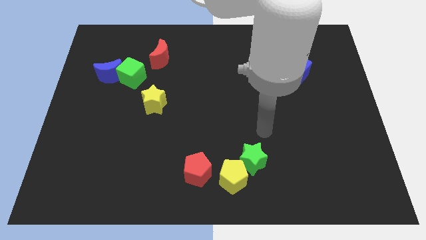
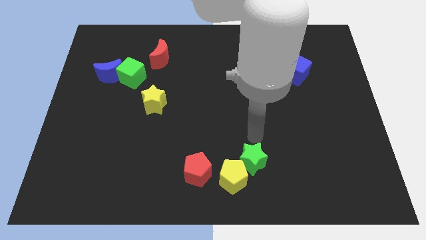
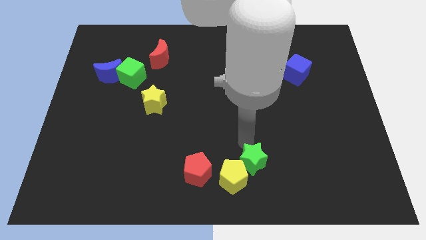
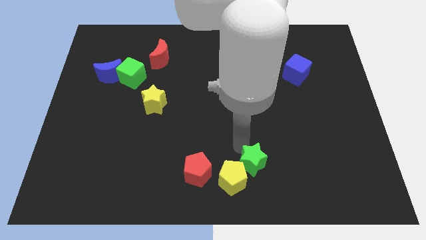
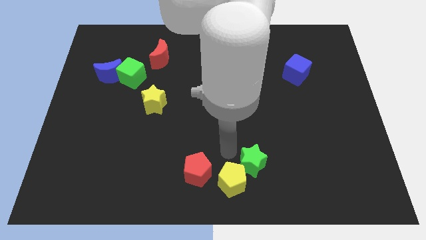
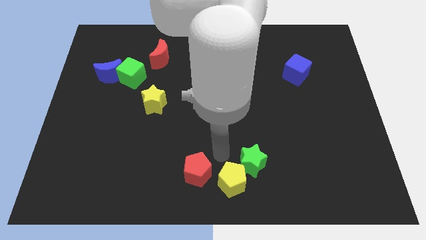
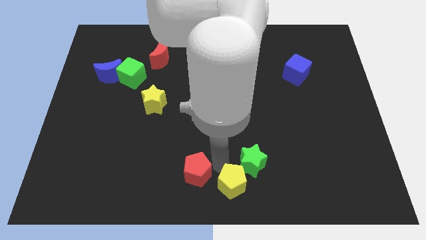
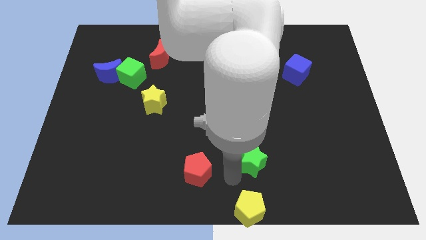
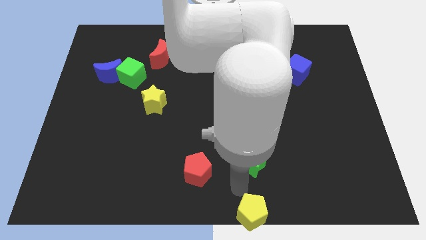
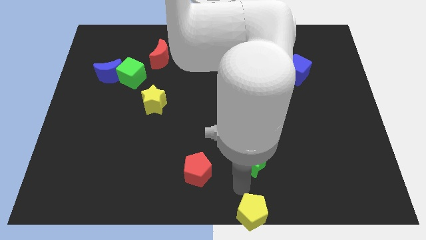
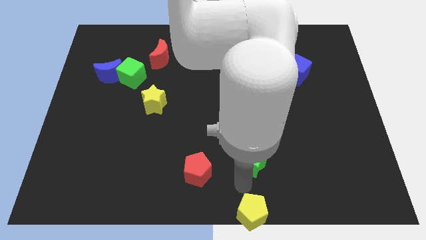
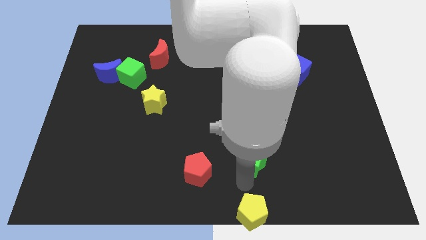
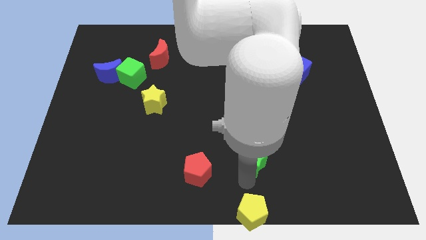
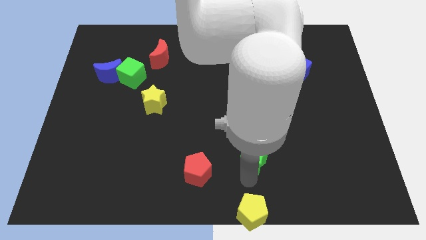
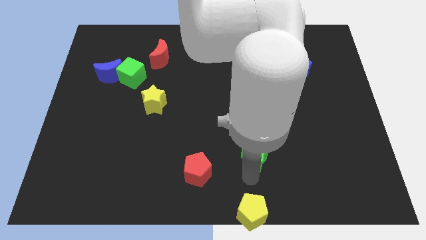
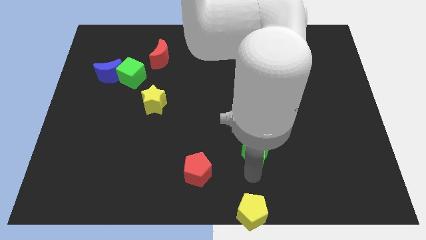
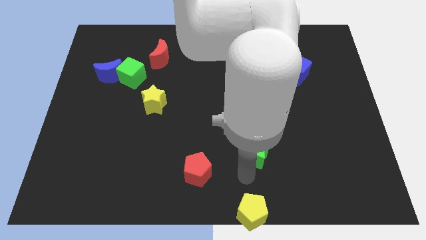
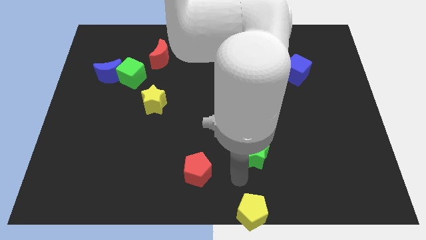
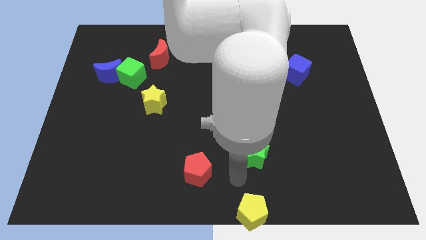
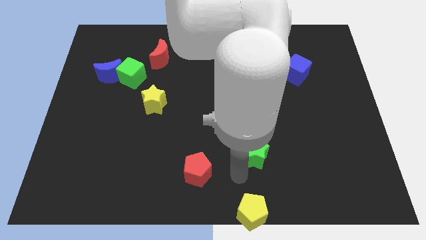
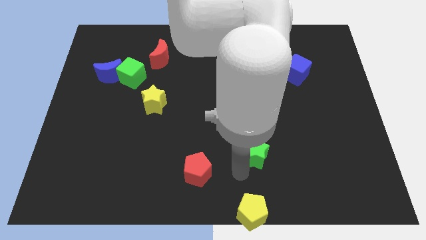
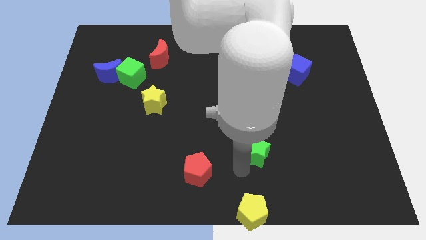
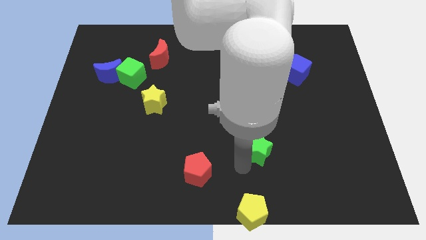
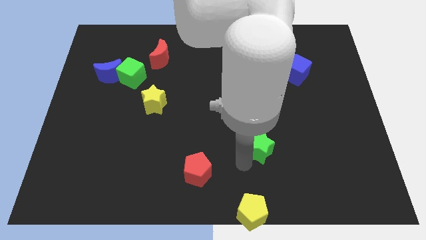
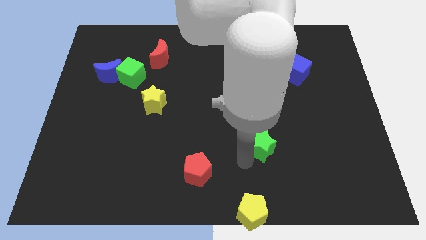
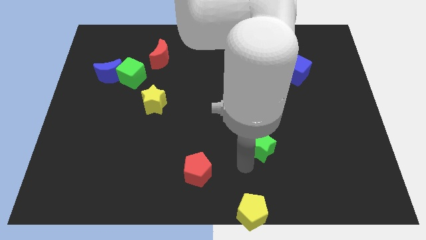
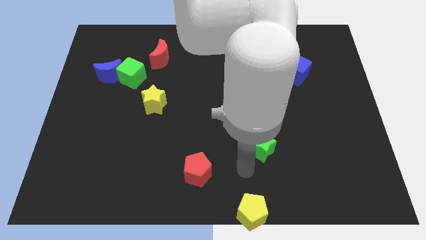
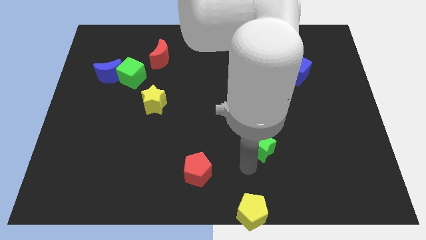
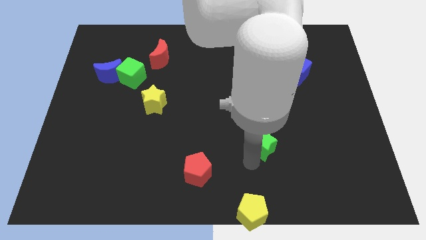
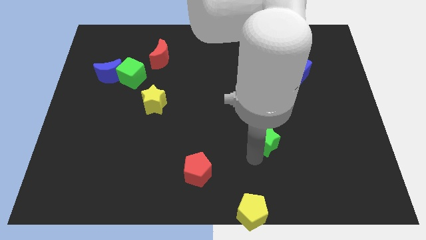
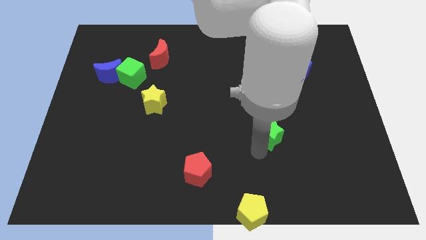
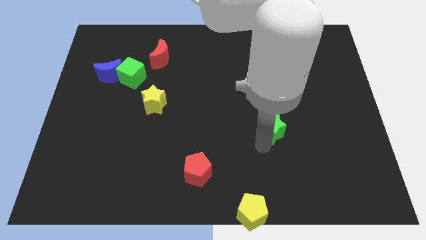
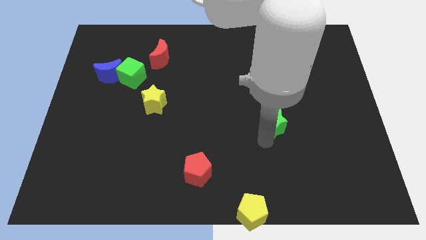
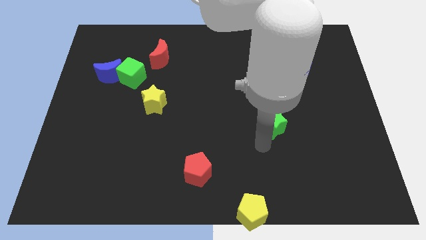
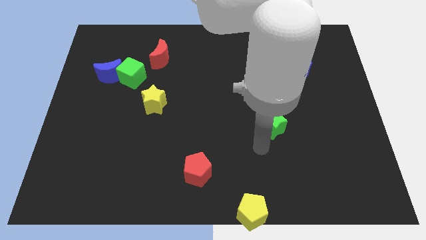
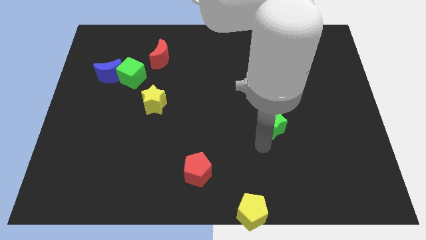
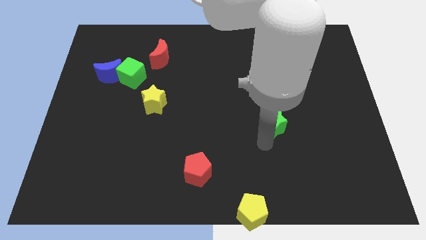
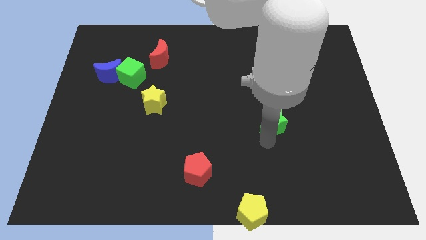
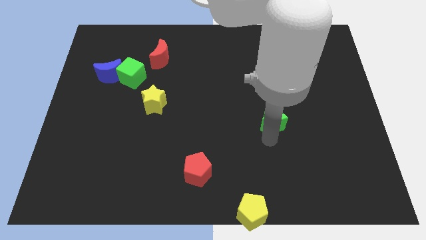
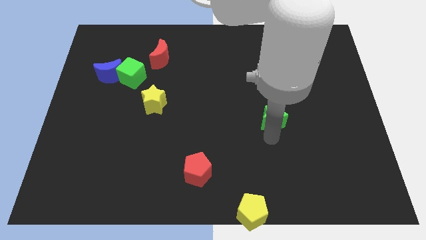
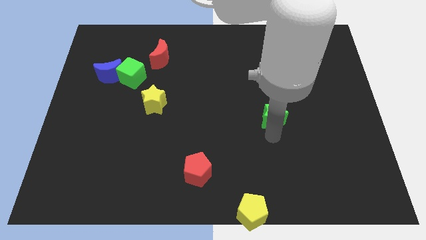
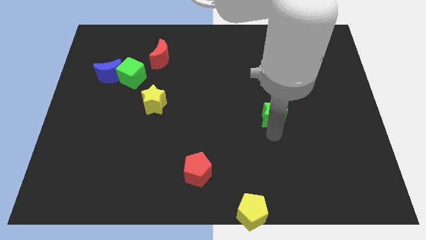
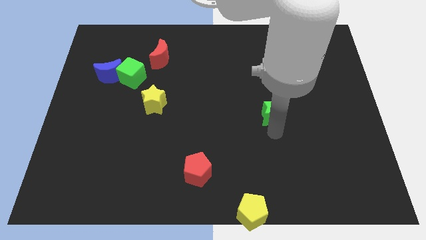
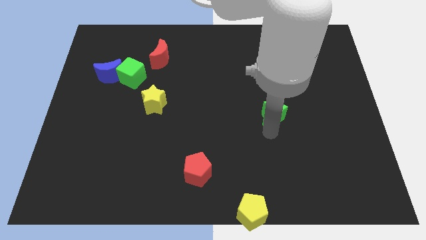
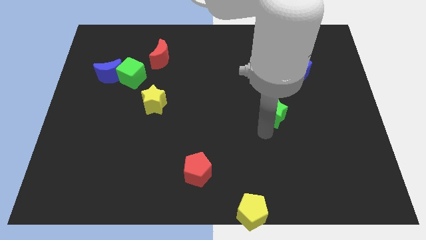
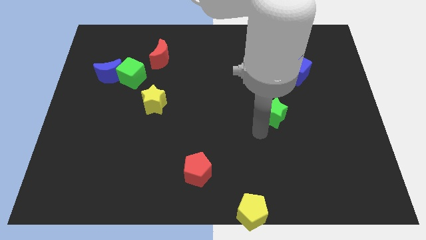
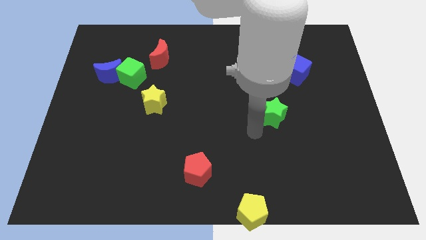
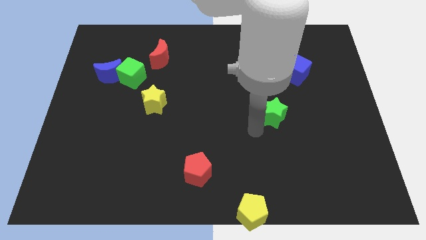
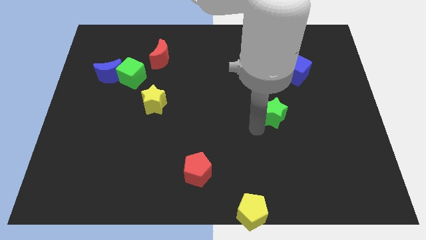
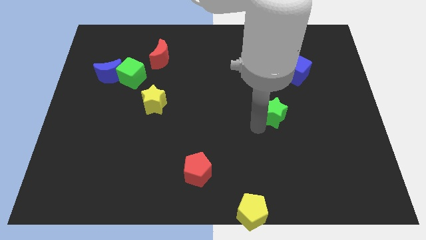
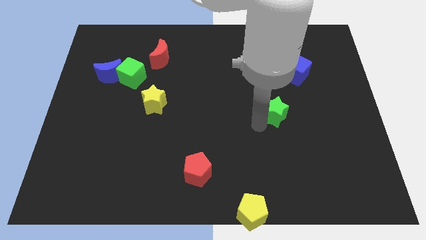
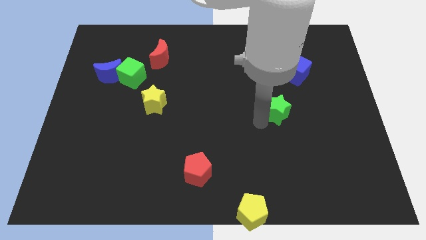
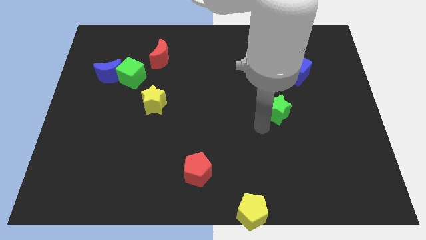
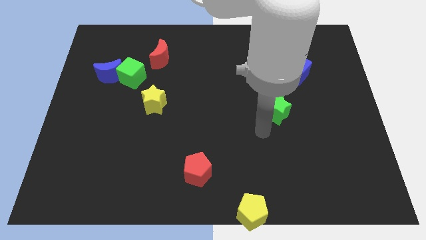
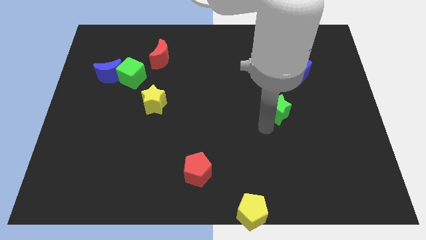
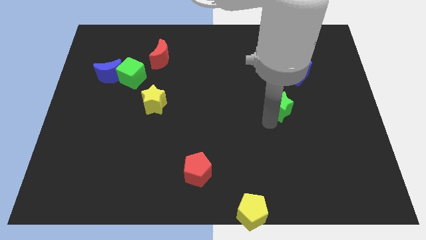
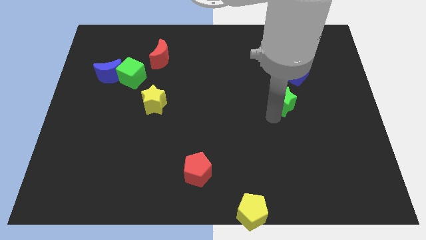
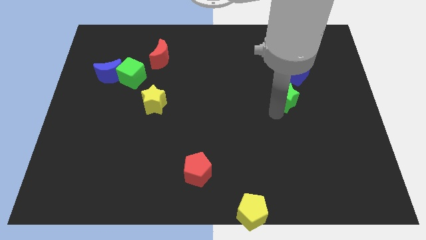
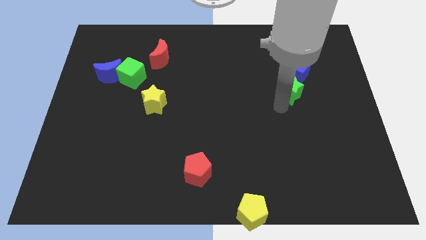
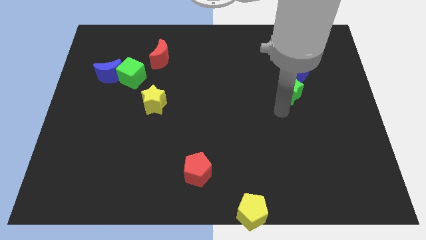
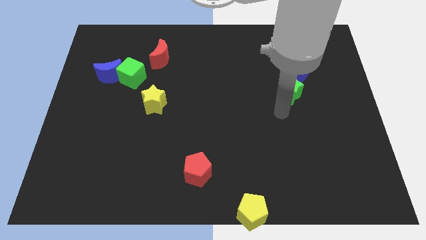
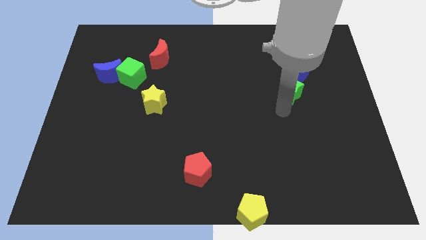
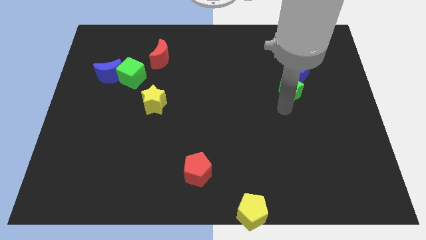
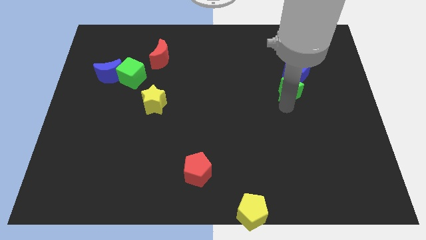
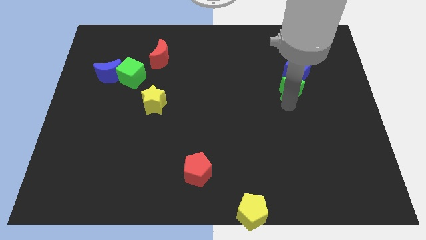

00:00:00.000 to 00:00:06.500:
push the green star next to the blue cube

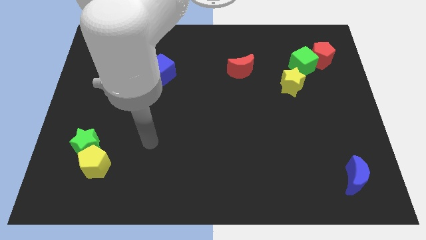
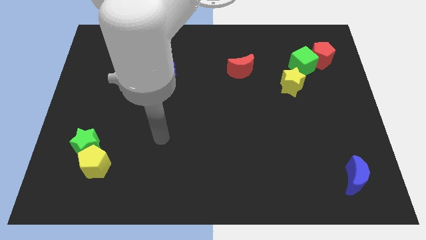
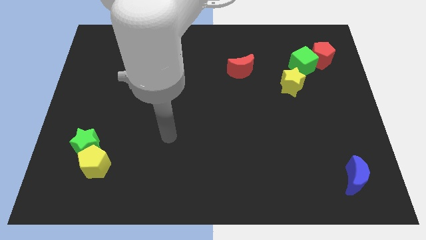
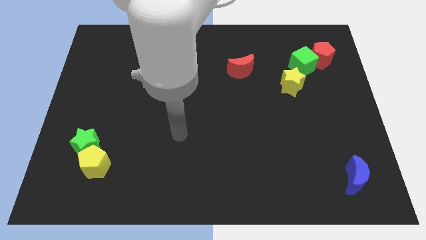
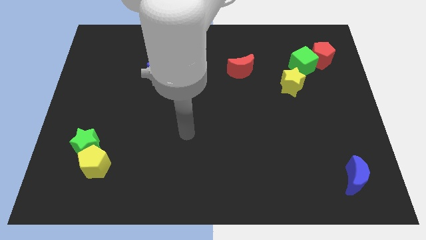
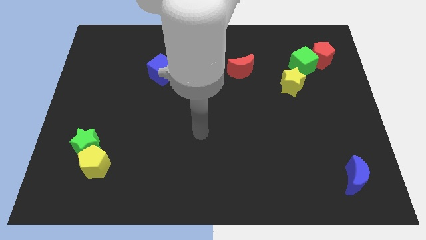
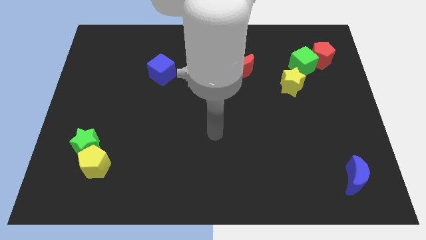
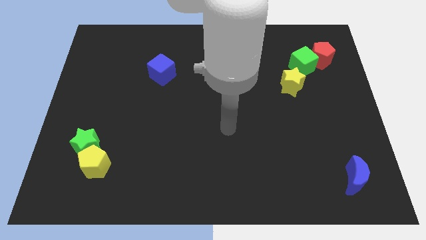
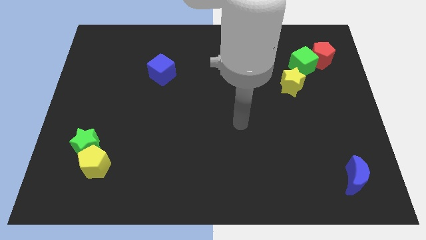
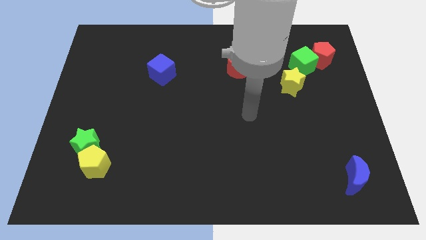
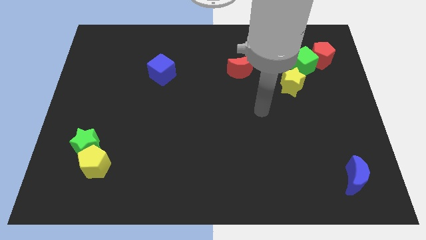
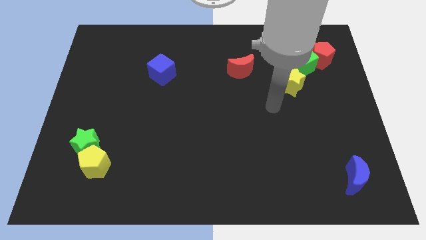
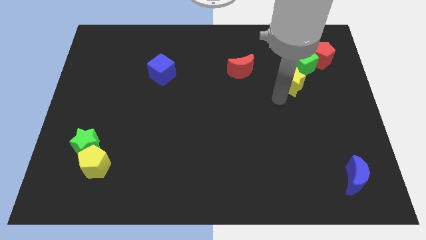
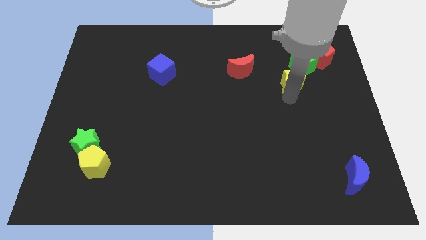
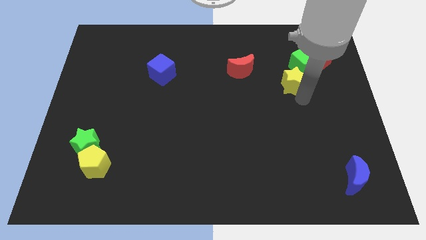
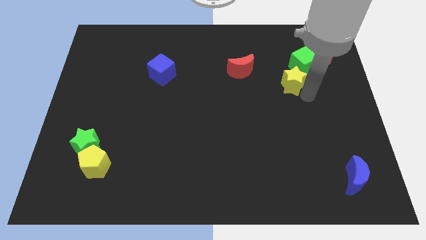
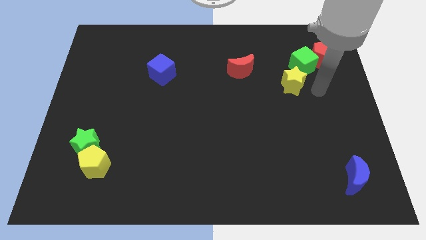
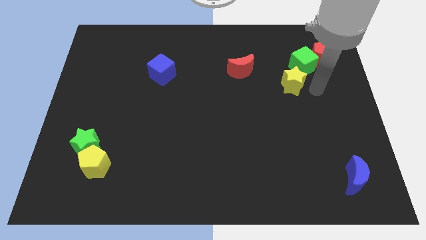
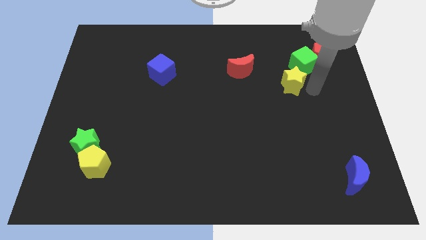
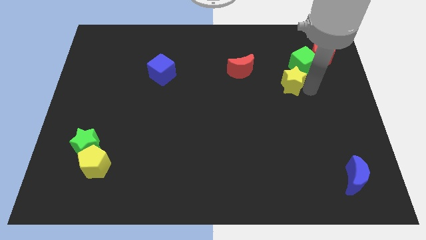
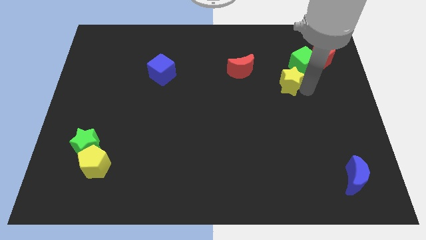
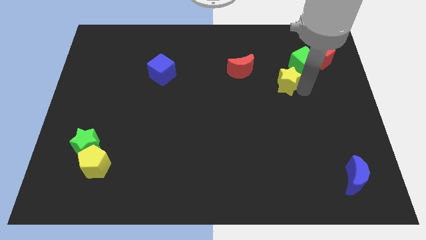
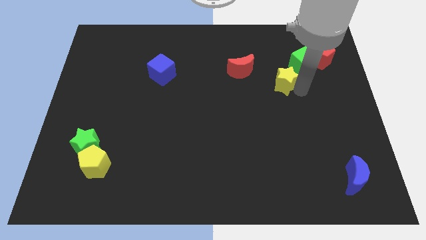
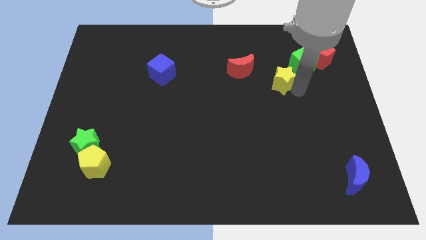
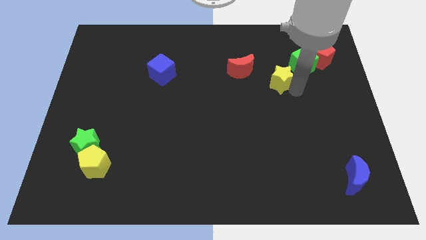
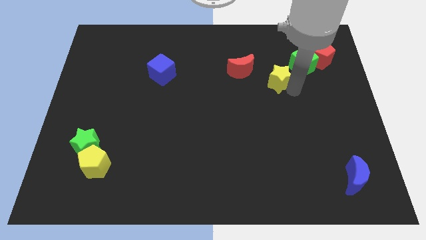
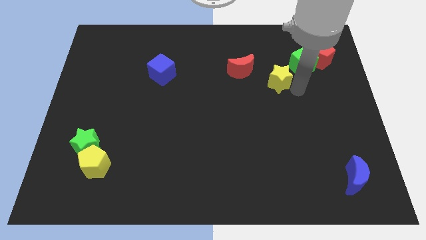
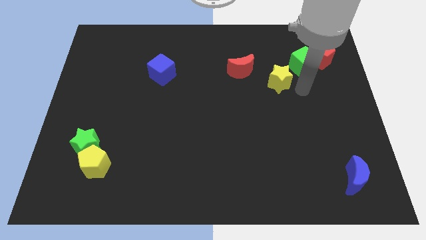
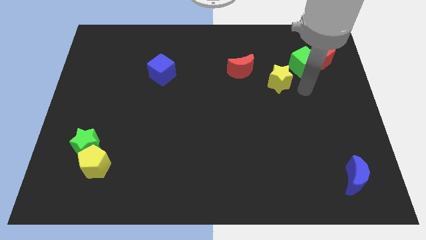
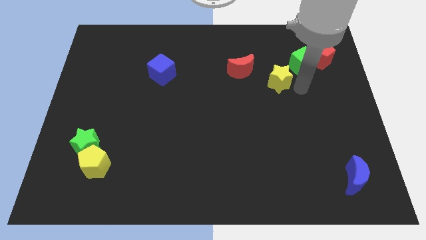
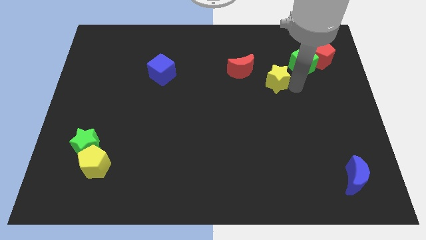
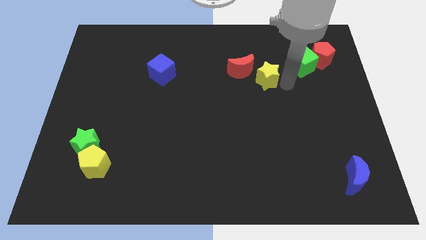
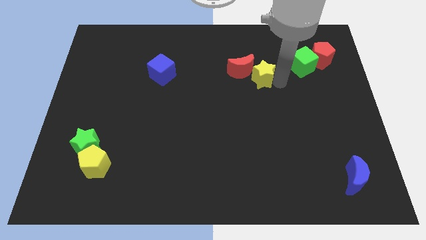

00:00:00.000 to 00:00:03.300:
push the yellow star towards the red moon
